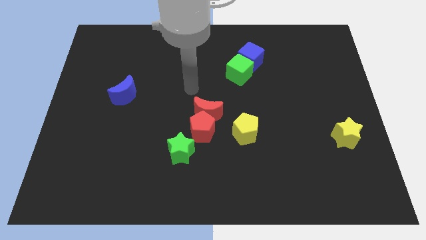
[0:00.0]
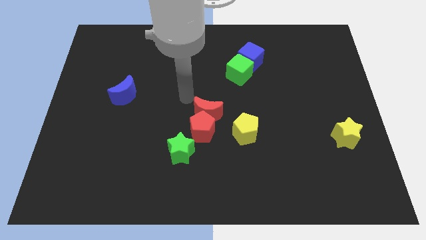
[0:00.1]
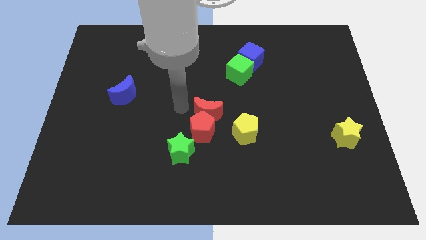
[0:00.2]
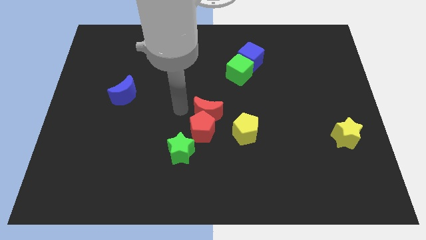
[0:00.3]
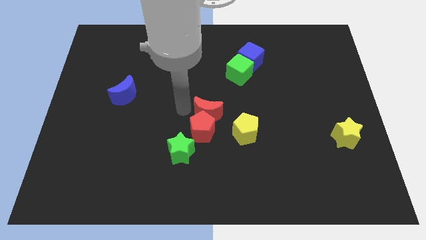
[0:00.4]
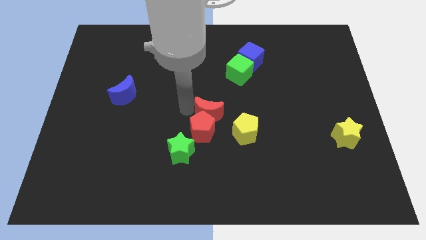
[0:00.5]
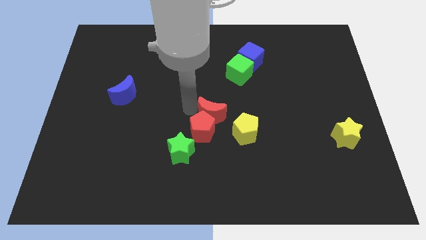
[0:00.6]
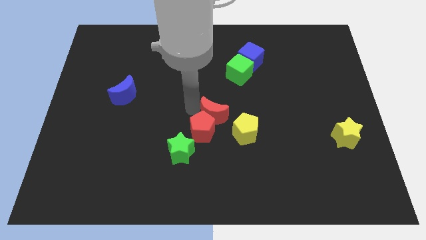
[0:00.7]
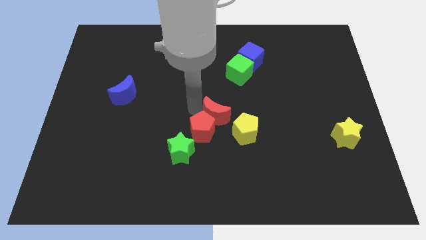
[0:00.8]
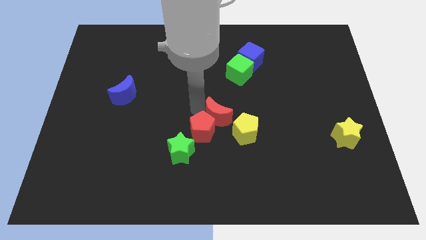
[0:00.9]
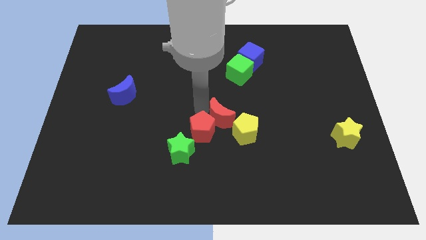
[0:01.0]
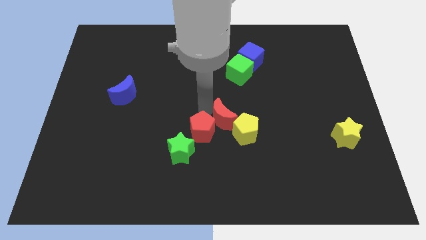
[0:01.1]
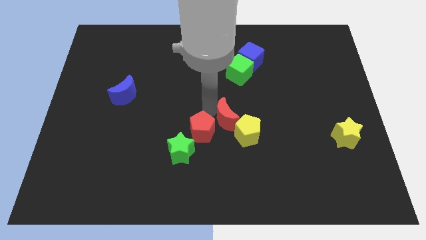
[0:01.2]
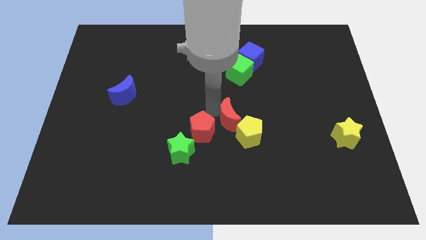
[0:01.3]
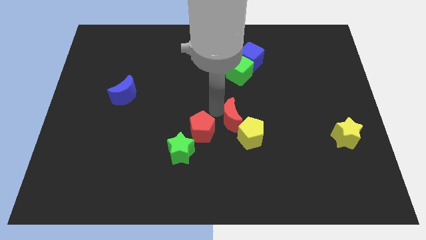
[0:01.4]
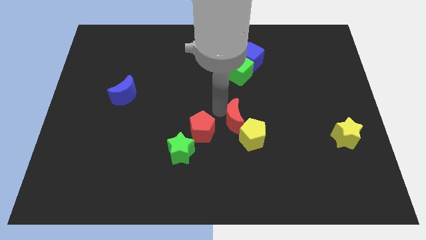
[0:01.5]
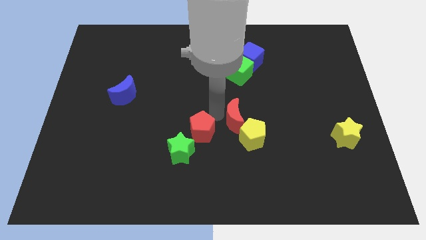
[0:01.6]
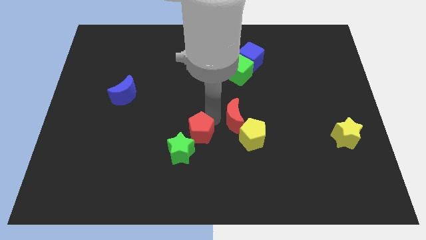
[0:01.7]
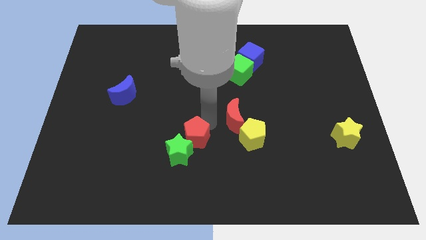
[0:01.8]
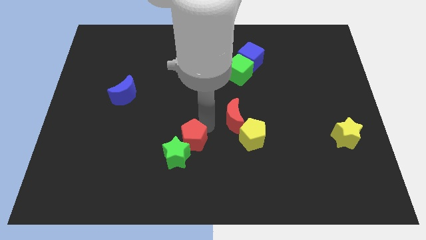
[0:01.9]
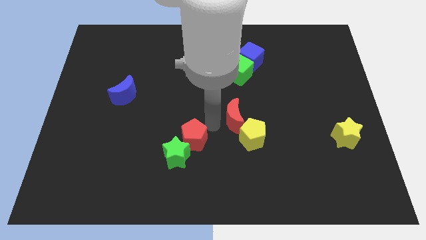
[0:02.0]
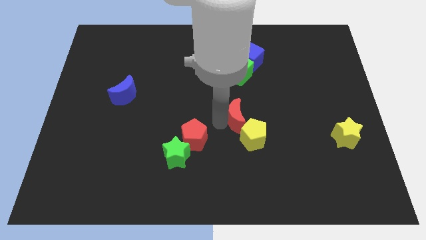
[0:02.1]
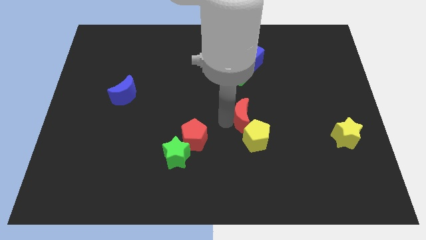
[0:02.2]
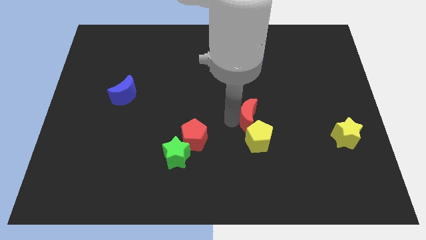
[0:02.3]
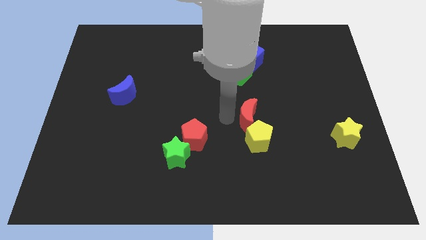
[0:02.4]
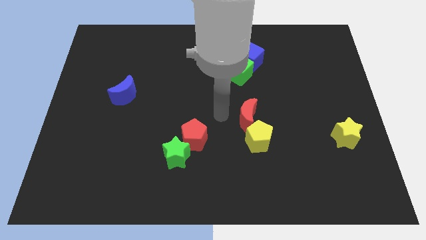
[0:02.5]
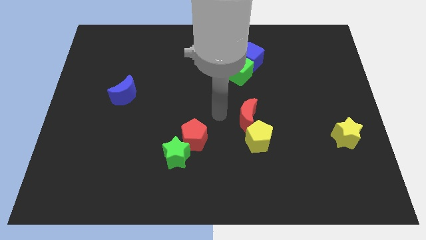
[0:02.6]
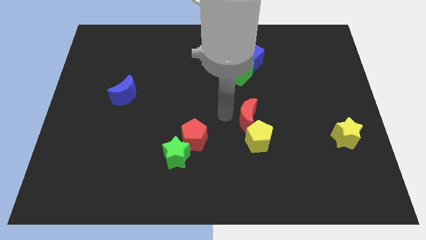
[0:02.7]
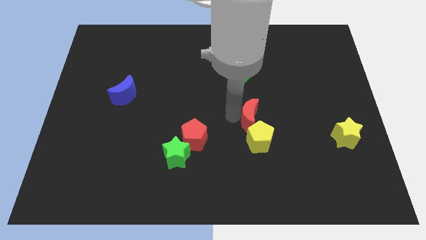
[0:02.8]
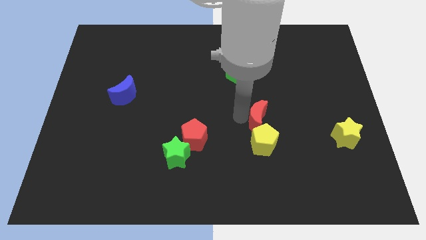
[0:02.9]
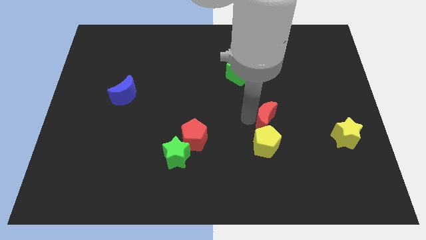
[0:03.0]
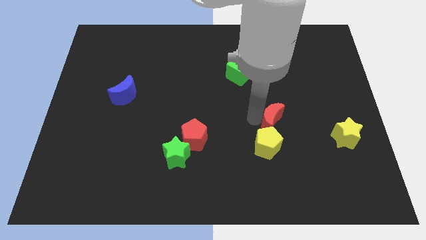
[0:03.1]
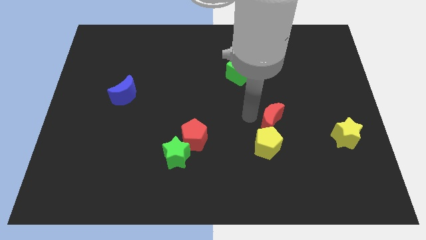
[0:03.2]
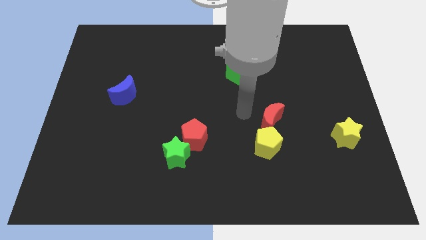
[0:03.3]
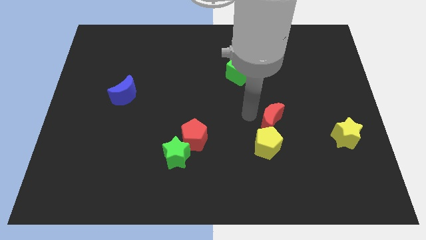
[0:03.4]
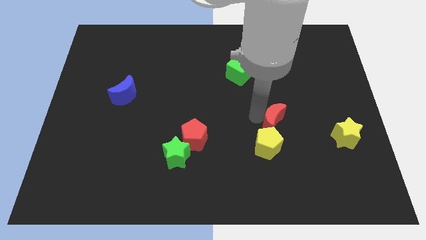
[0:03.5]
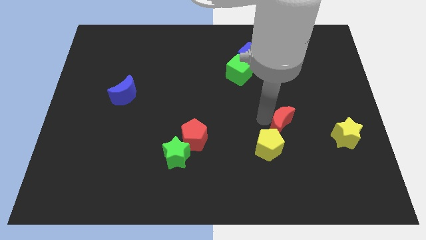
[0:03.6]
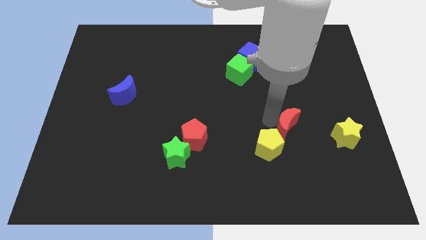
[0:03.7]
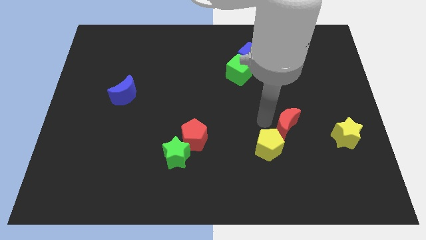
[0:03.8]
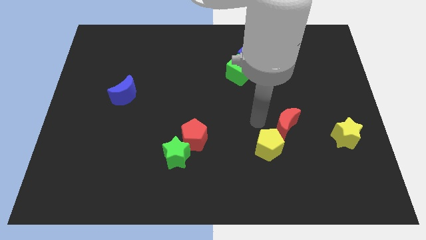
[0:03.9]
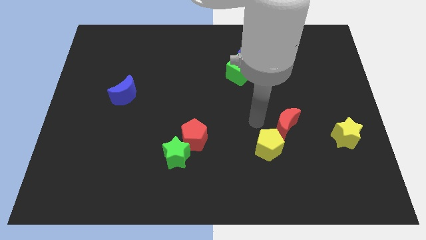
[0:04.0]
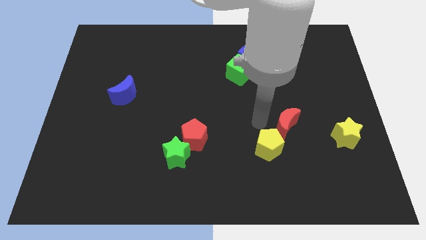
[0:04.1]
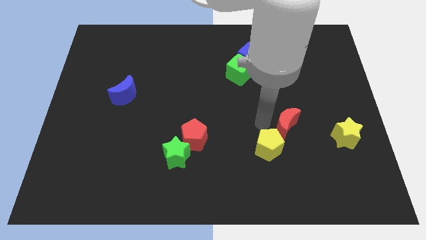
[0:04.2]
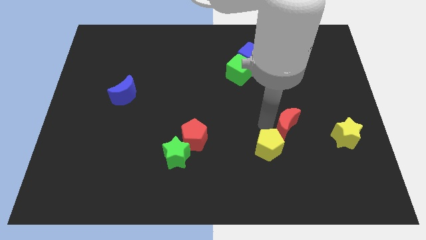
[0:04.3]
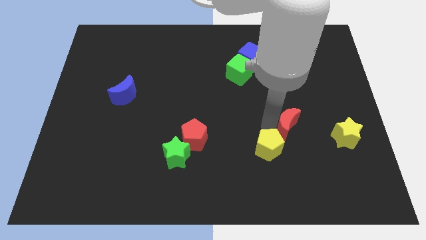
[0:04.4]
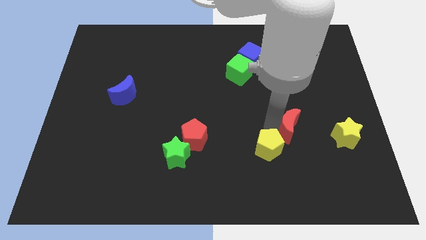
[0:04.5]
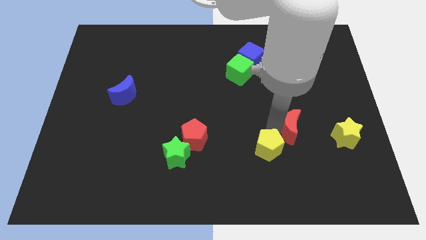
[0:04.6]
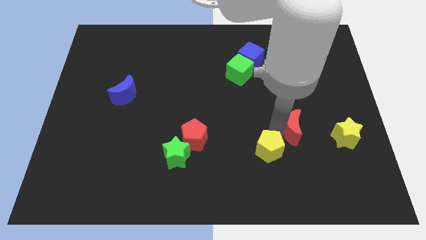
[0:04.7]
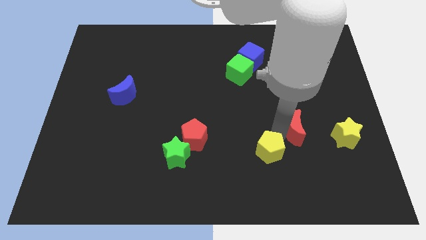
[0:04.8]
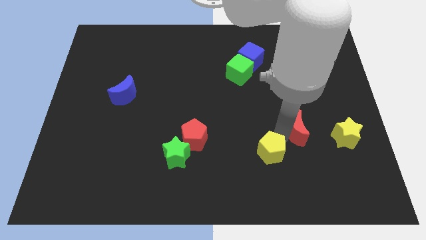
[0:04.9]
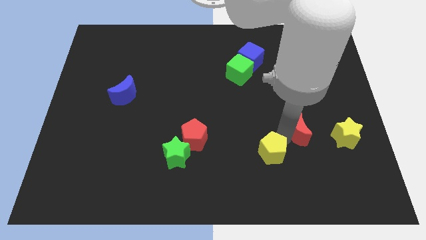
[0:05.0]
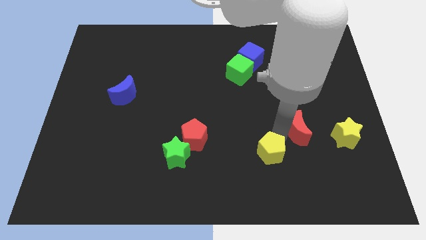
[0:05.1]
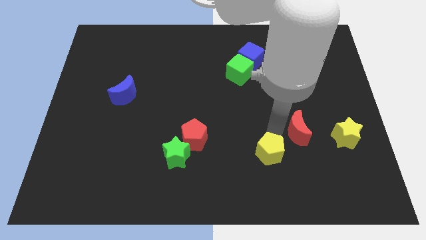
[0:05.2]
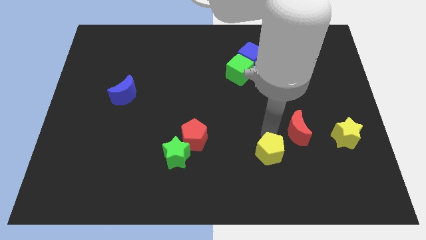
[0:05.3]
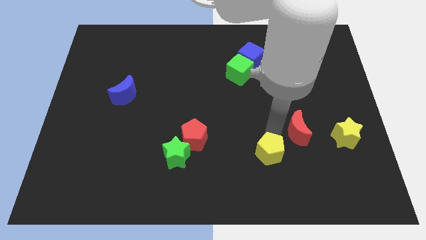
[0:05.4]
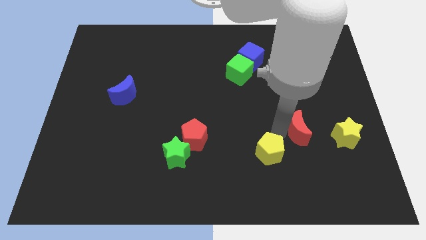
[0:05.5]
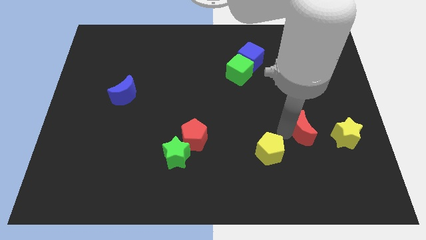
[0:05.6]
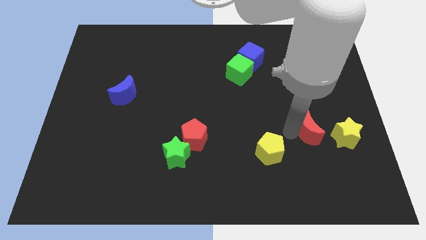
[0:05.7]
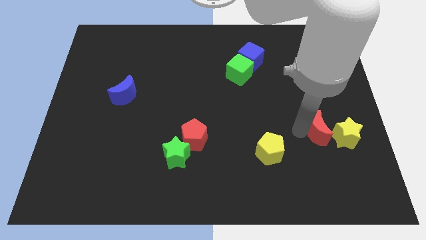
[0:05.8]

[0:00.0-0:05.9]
slide the red moon next to the yellow star

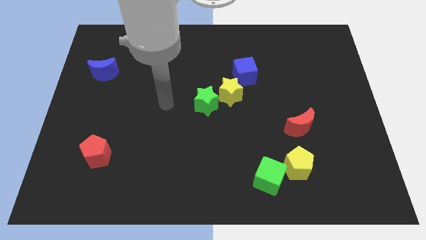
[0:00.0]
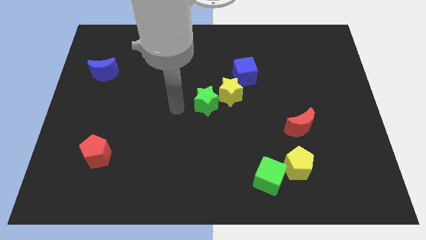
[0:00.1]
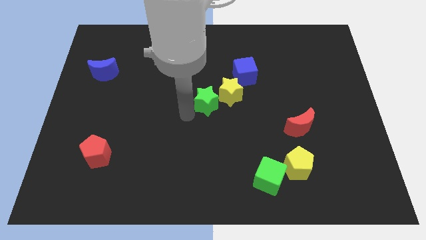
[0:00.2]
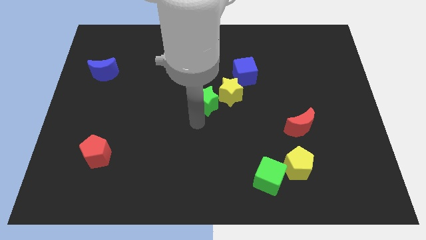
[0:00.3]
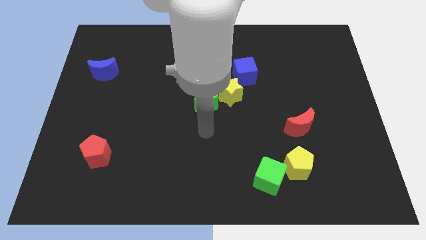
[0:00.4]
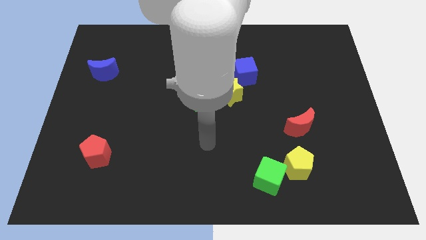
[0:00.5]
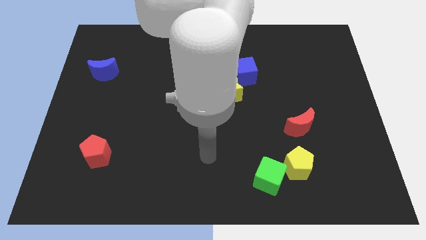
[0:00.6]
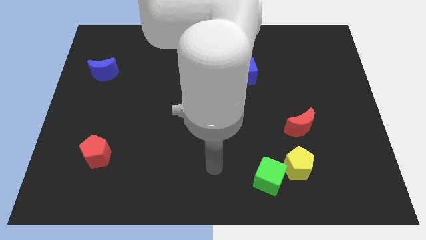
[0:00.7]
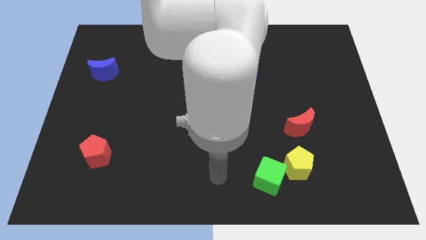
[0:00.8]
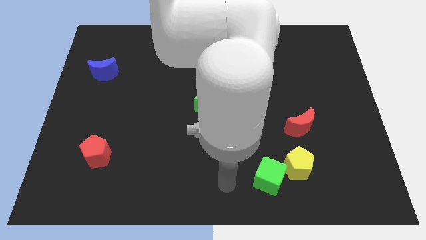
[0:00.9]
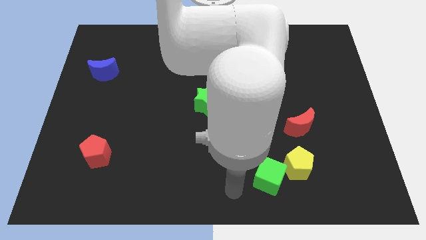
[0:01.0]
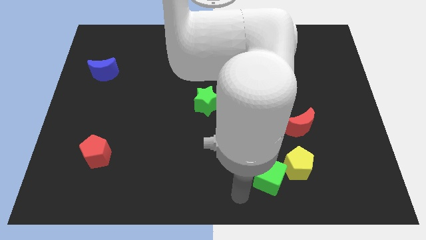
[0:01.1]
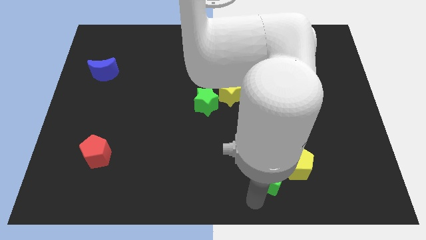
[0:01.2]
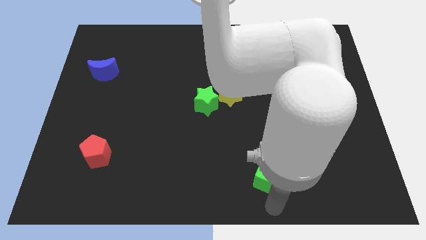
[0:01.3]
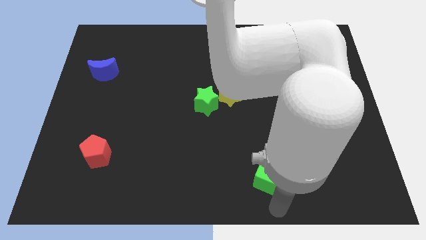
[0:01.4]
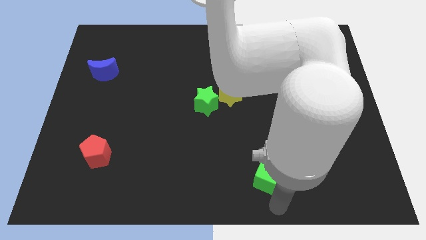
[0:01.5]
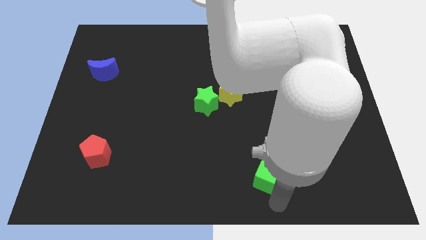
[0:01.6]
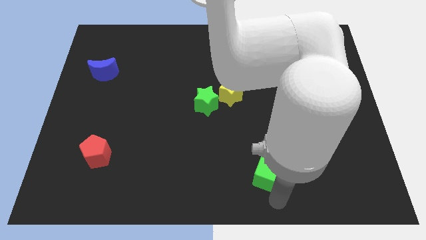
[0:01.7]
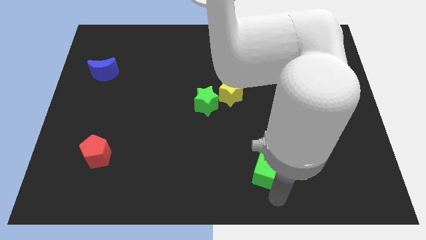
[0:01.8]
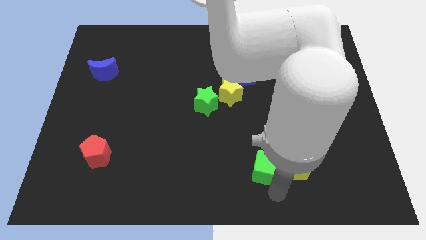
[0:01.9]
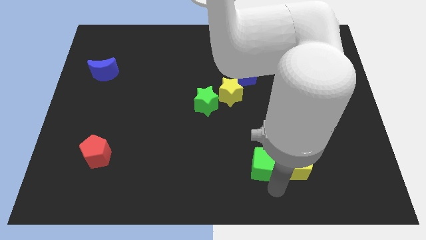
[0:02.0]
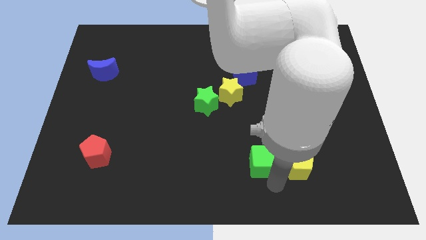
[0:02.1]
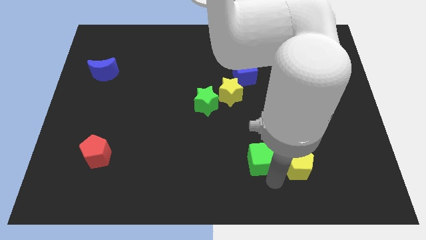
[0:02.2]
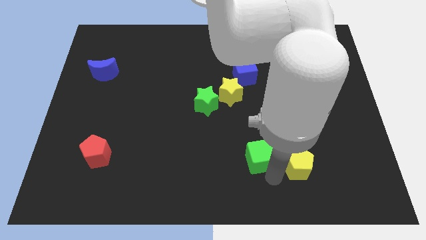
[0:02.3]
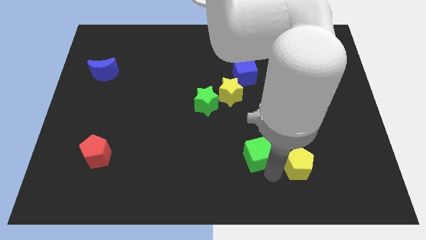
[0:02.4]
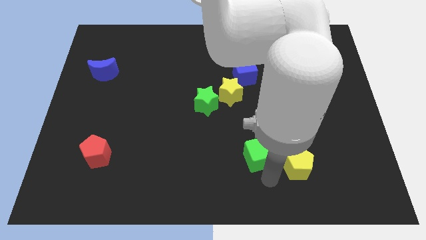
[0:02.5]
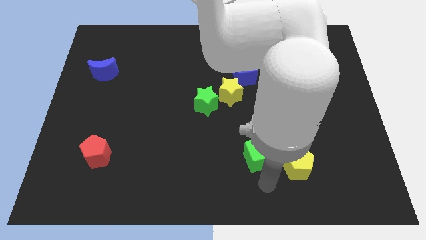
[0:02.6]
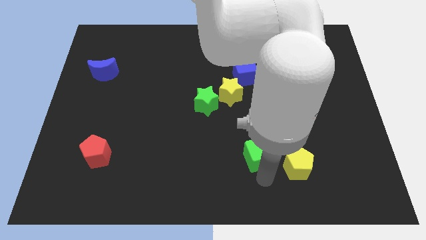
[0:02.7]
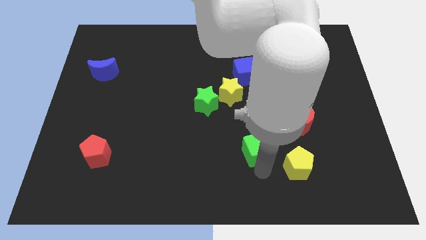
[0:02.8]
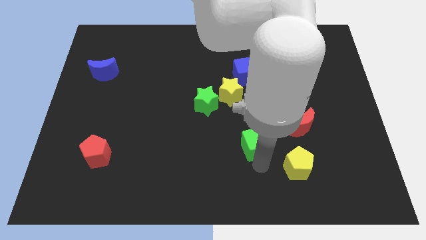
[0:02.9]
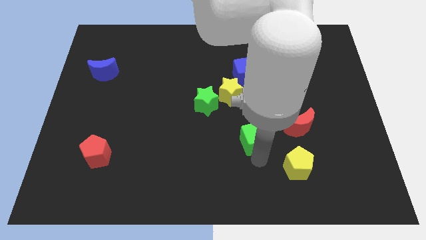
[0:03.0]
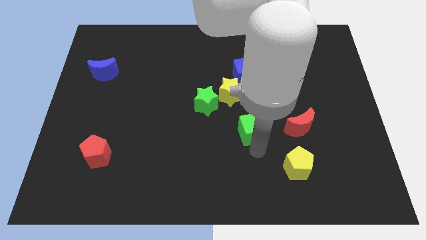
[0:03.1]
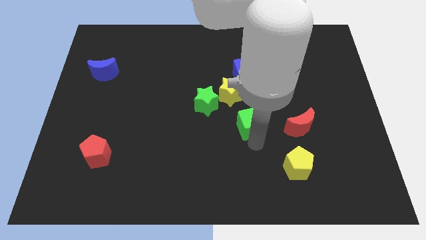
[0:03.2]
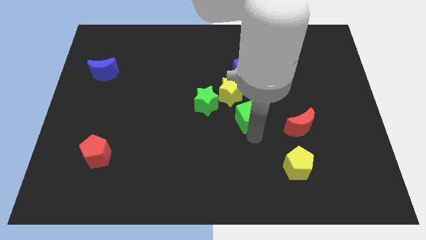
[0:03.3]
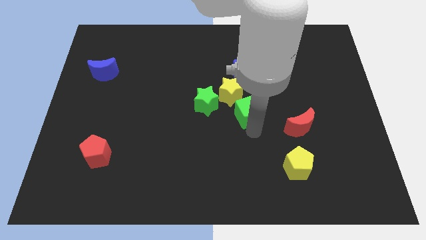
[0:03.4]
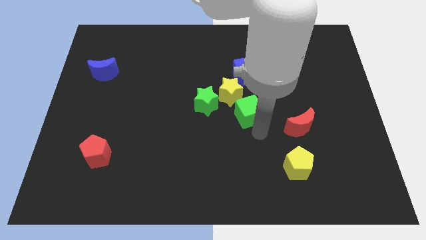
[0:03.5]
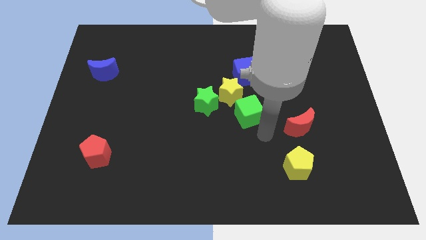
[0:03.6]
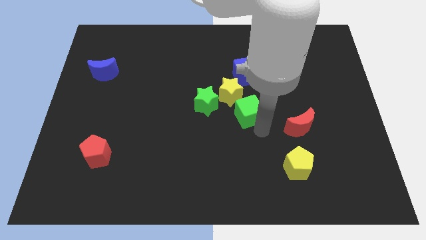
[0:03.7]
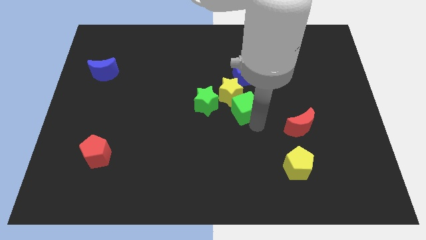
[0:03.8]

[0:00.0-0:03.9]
push the green cube next to the yellow star
